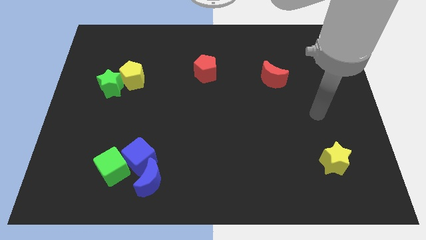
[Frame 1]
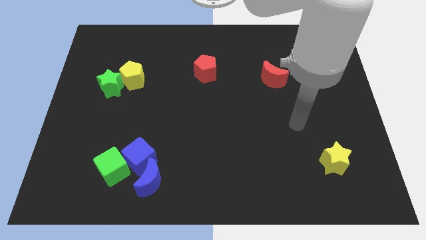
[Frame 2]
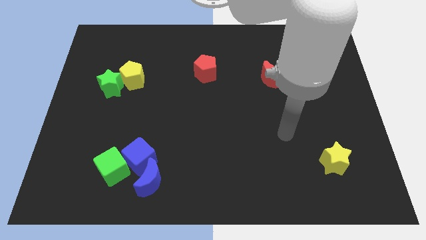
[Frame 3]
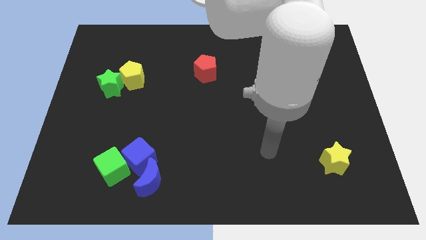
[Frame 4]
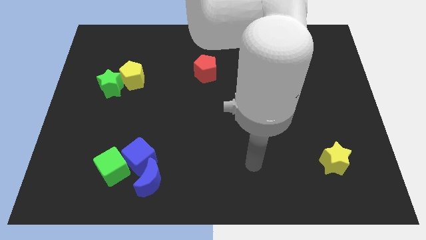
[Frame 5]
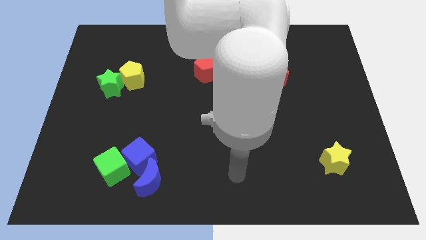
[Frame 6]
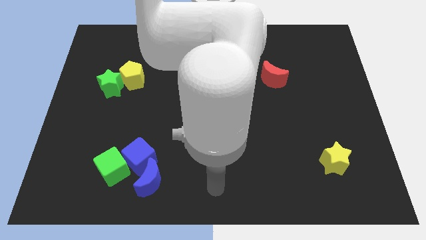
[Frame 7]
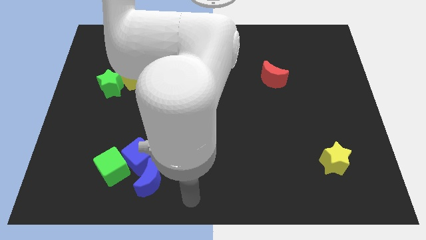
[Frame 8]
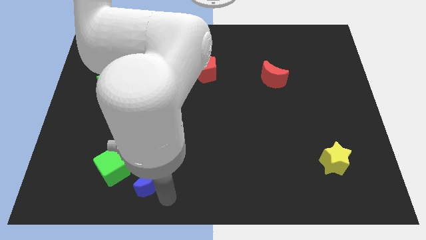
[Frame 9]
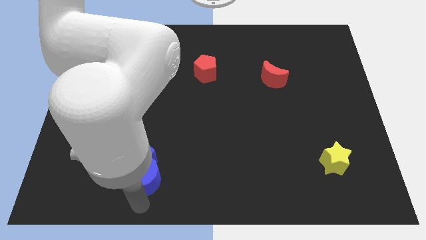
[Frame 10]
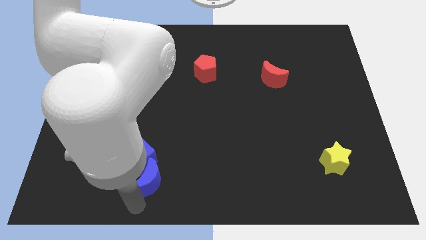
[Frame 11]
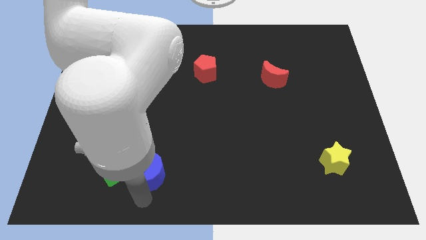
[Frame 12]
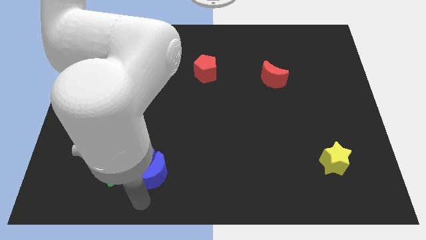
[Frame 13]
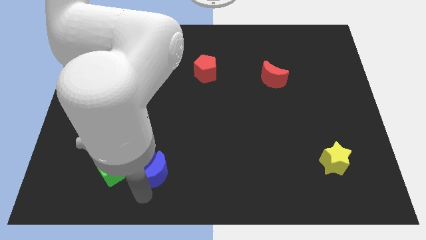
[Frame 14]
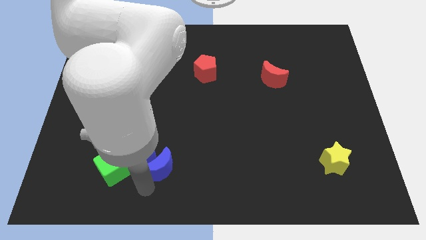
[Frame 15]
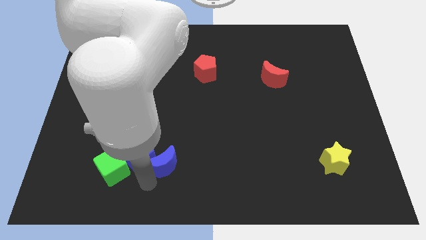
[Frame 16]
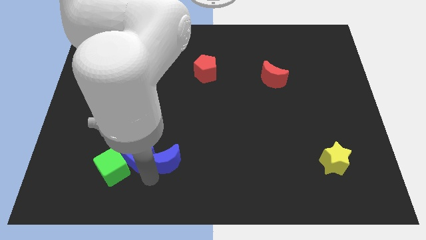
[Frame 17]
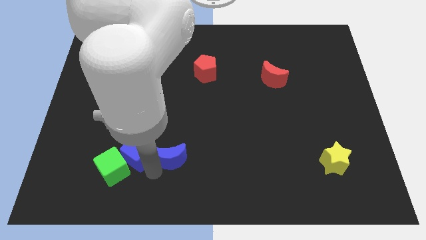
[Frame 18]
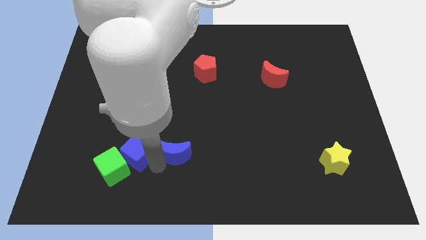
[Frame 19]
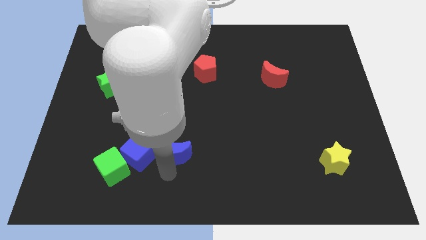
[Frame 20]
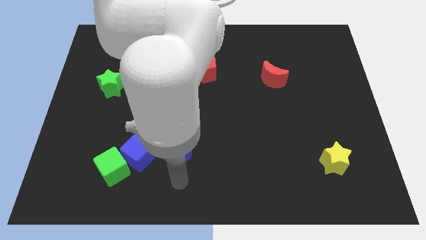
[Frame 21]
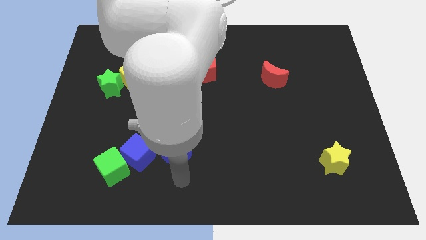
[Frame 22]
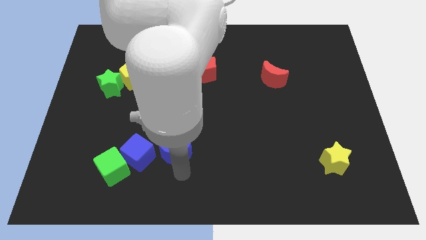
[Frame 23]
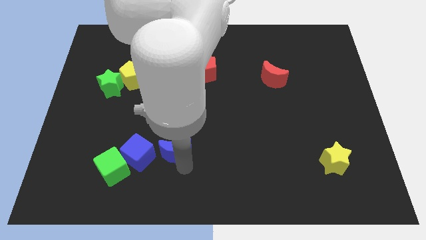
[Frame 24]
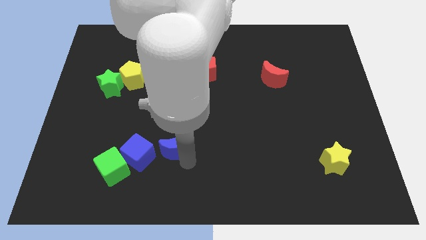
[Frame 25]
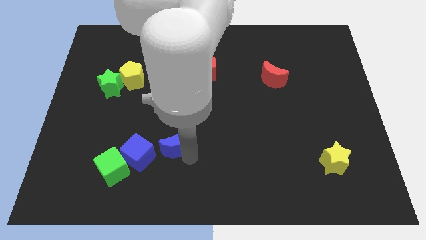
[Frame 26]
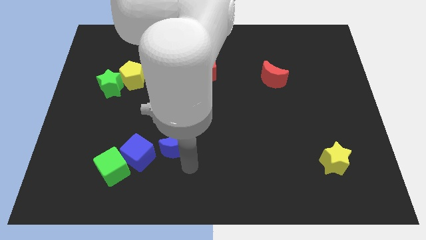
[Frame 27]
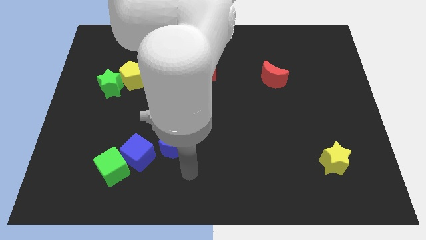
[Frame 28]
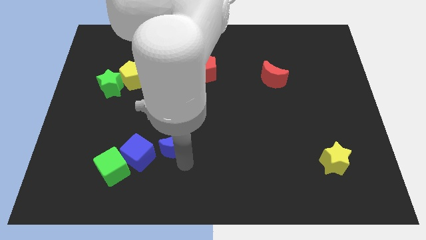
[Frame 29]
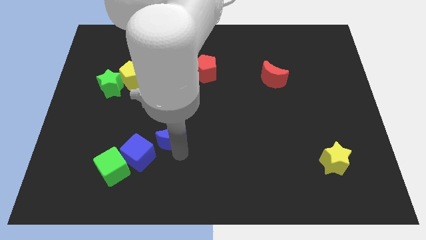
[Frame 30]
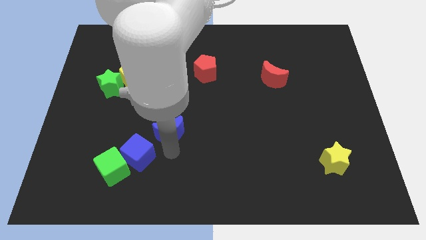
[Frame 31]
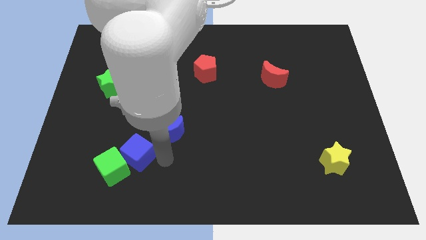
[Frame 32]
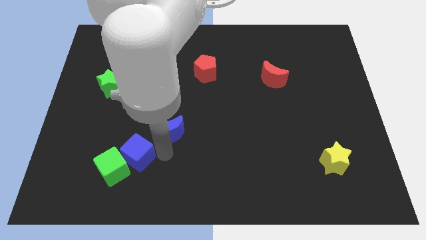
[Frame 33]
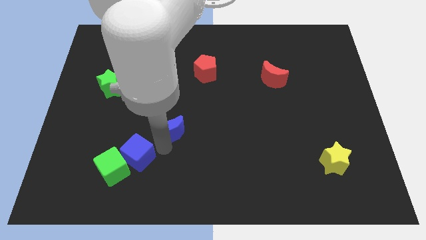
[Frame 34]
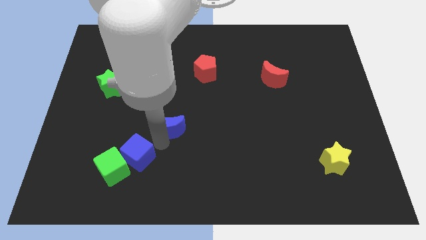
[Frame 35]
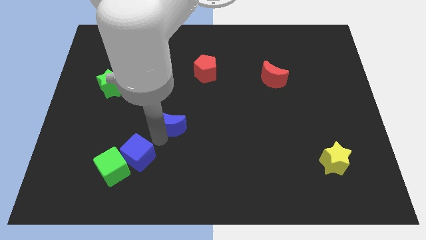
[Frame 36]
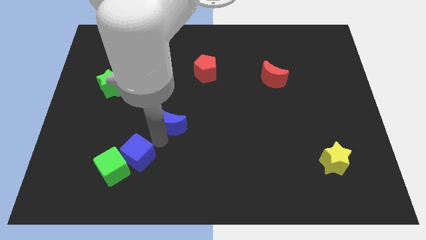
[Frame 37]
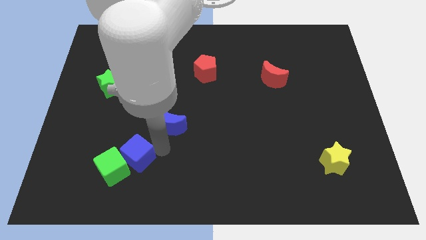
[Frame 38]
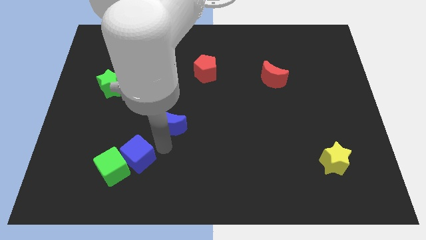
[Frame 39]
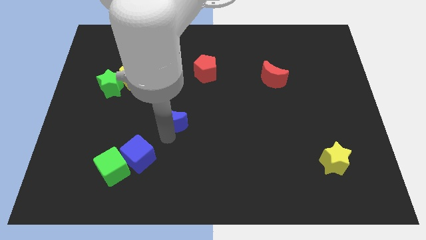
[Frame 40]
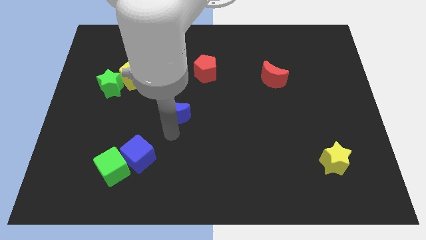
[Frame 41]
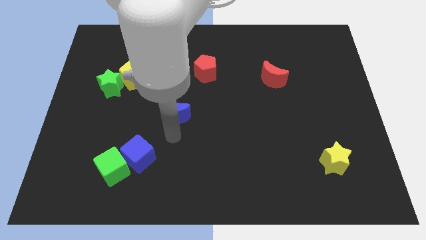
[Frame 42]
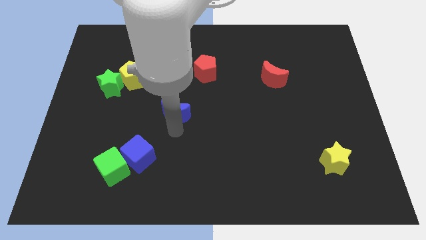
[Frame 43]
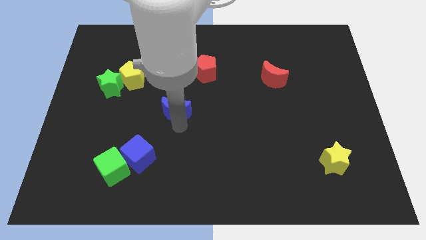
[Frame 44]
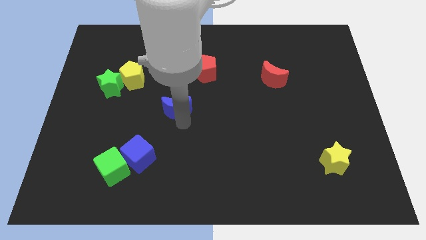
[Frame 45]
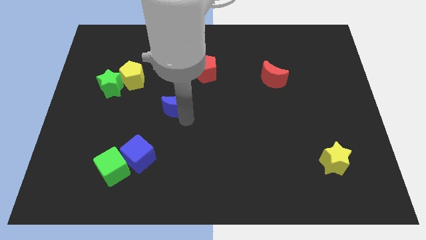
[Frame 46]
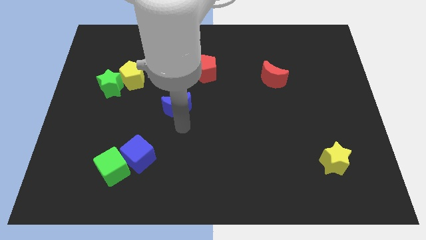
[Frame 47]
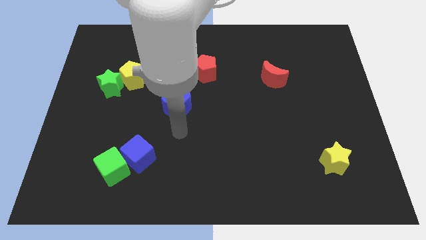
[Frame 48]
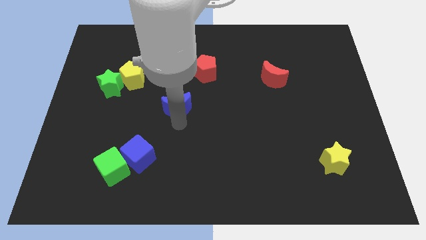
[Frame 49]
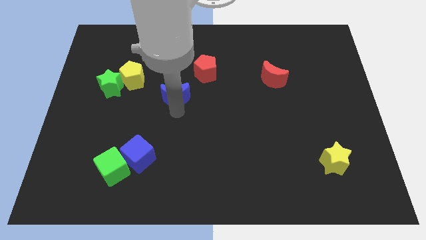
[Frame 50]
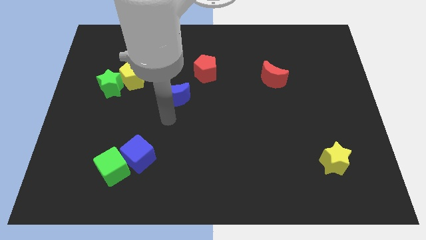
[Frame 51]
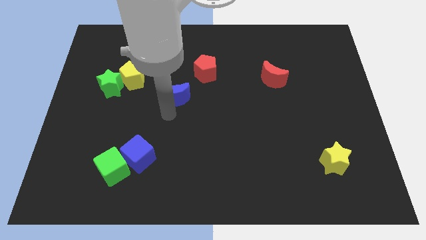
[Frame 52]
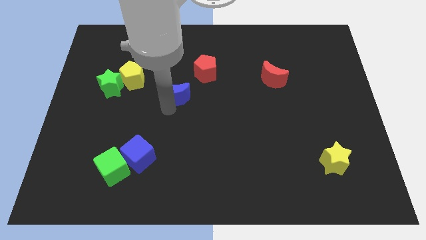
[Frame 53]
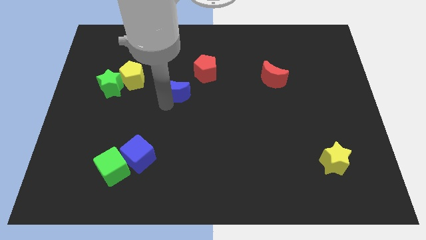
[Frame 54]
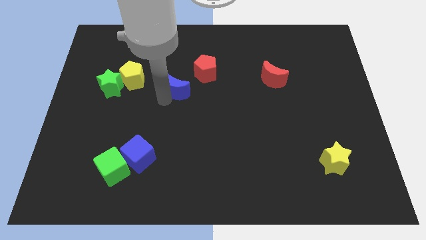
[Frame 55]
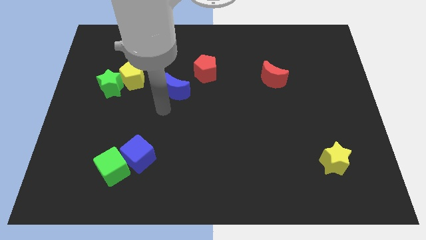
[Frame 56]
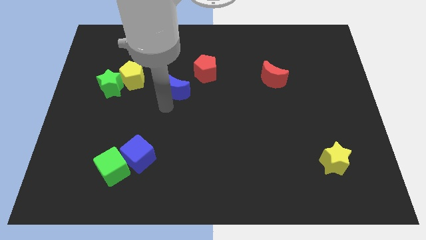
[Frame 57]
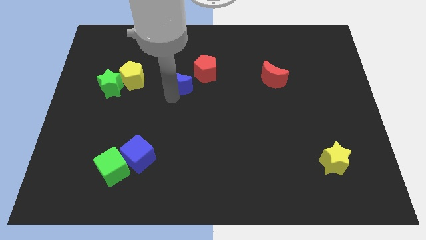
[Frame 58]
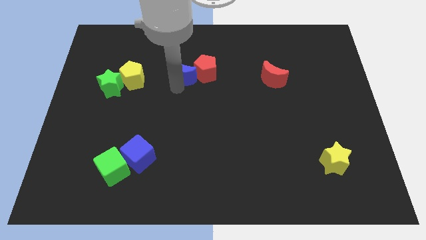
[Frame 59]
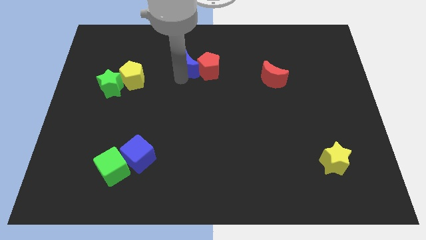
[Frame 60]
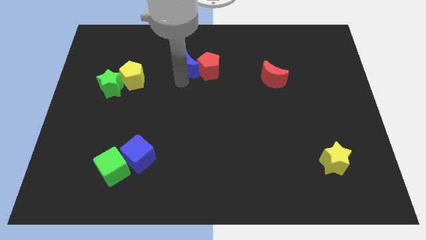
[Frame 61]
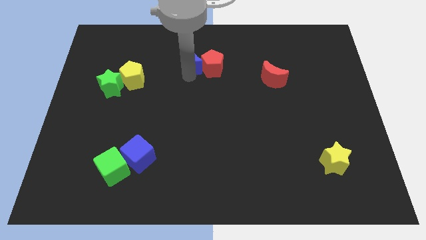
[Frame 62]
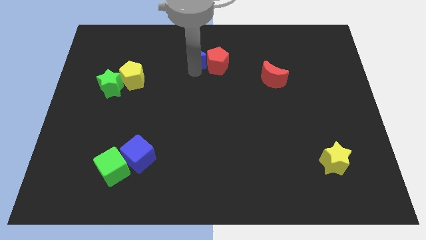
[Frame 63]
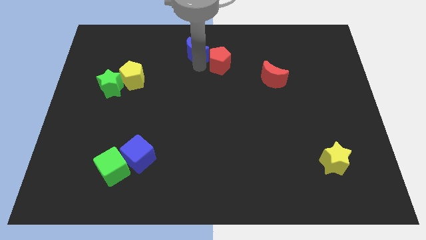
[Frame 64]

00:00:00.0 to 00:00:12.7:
slide the blue moon to the towards your base

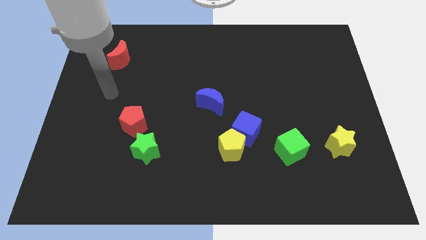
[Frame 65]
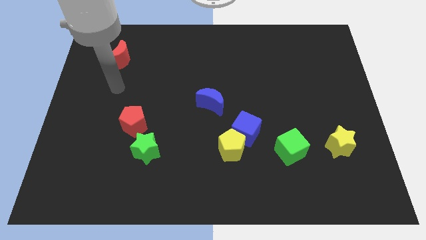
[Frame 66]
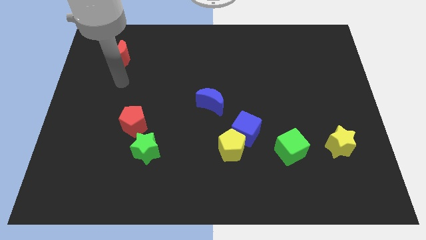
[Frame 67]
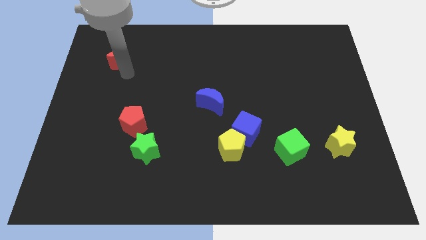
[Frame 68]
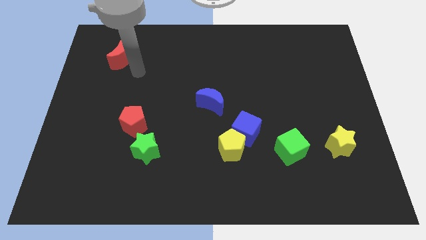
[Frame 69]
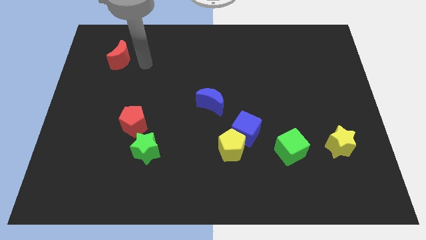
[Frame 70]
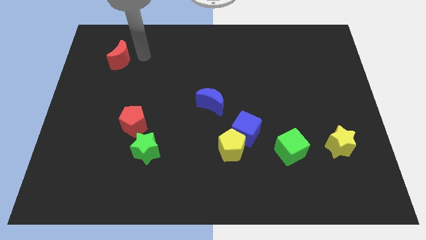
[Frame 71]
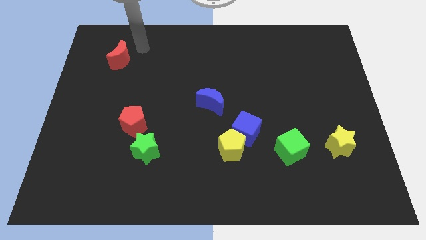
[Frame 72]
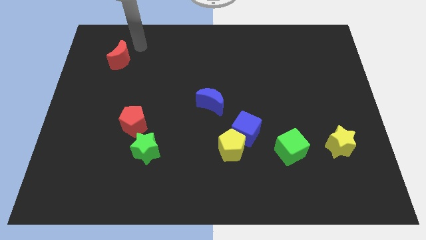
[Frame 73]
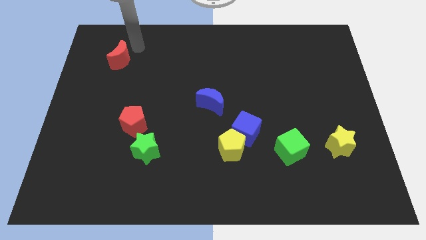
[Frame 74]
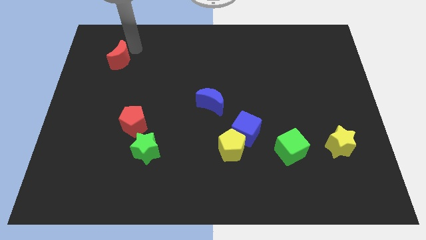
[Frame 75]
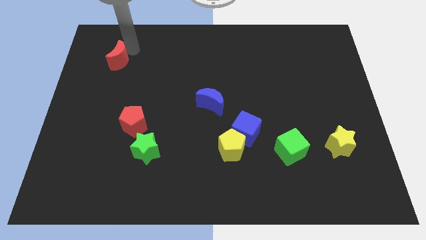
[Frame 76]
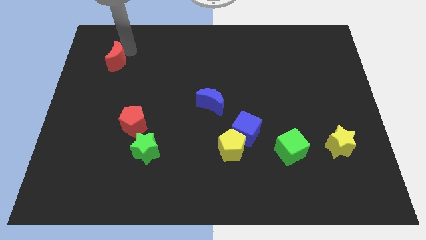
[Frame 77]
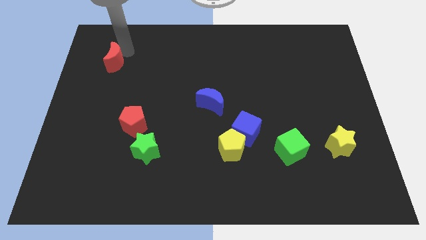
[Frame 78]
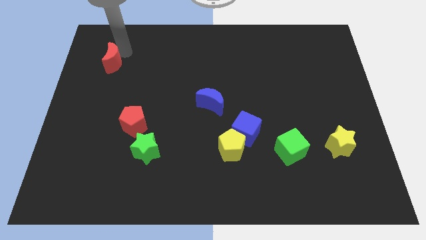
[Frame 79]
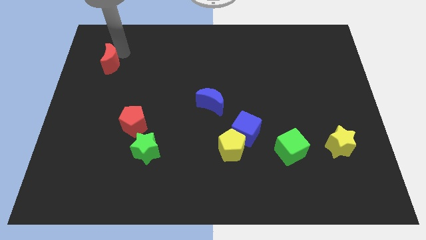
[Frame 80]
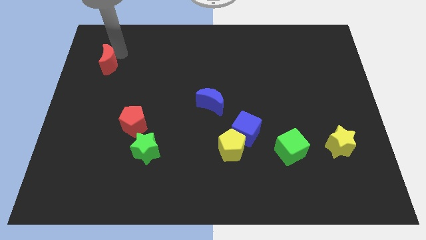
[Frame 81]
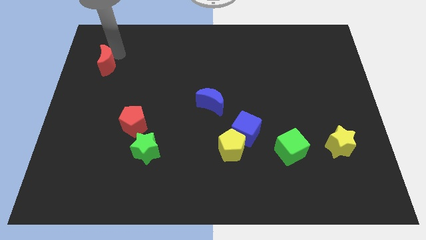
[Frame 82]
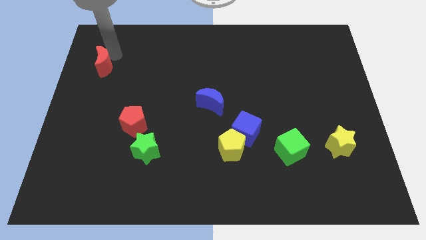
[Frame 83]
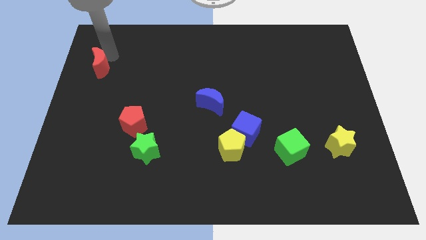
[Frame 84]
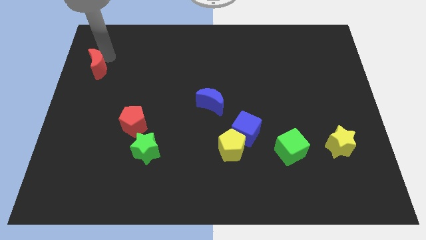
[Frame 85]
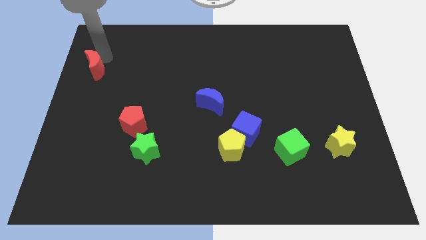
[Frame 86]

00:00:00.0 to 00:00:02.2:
put the red moon to the left side
